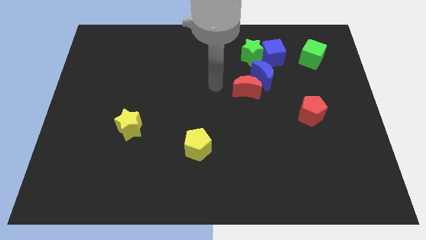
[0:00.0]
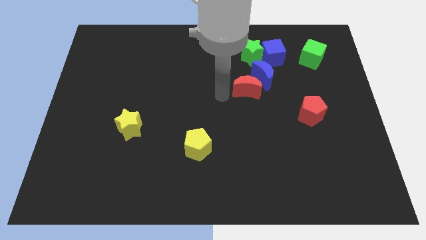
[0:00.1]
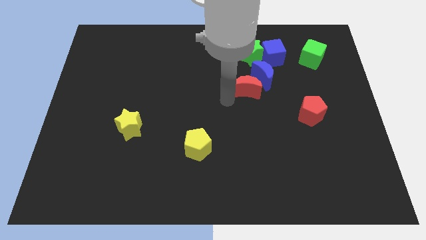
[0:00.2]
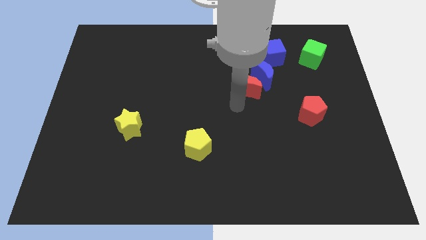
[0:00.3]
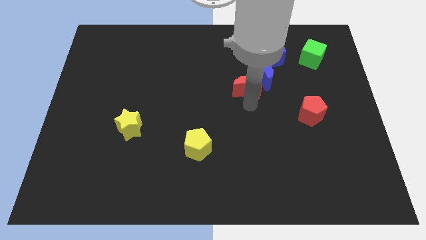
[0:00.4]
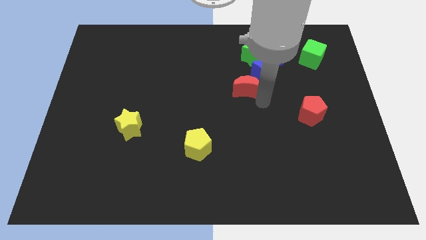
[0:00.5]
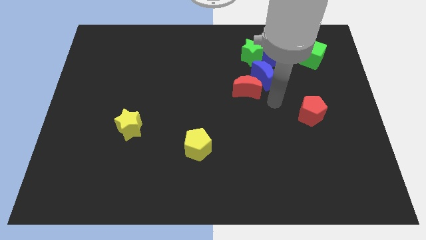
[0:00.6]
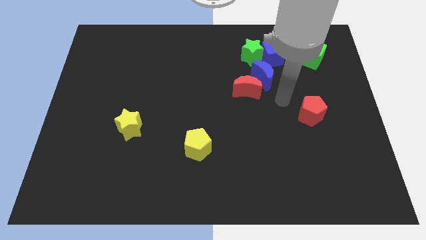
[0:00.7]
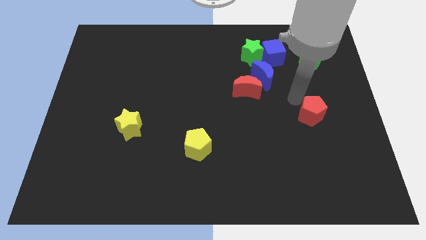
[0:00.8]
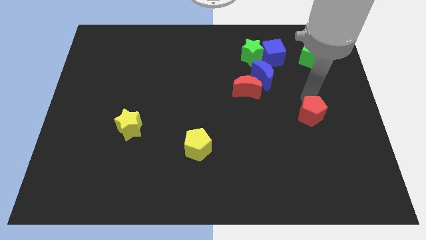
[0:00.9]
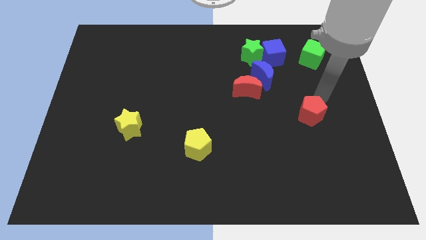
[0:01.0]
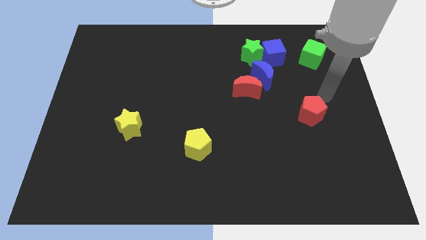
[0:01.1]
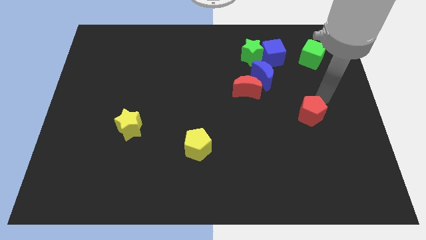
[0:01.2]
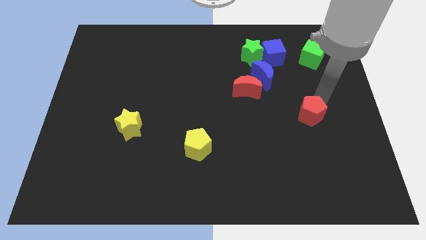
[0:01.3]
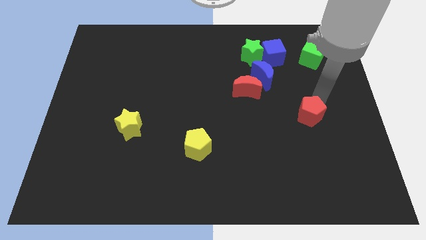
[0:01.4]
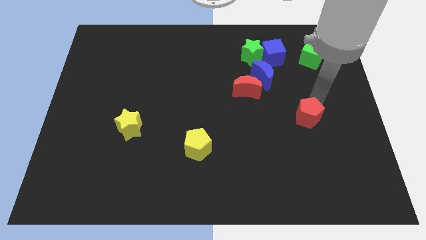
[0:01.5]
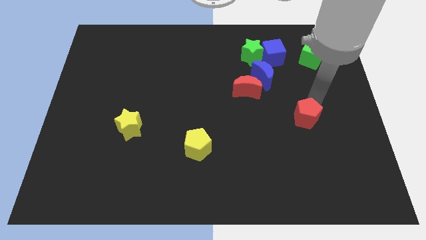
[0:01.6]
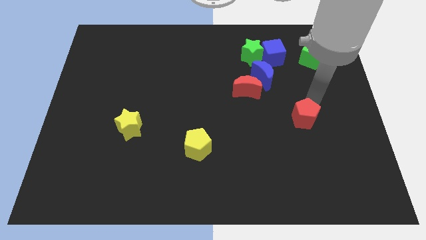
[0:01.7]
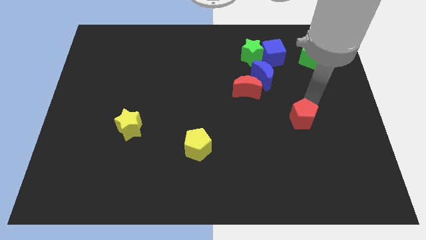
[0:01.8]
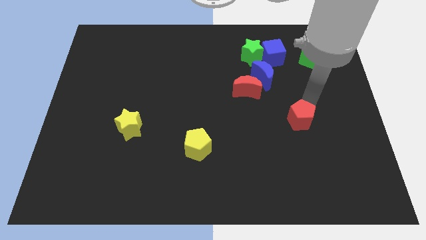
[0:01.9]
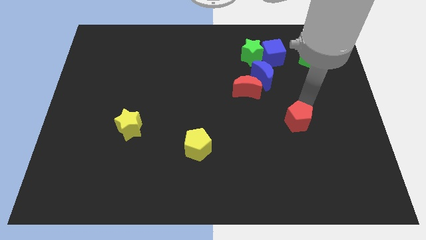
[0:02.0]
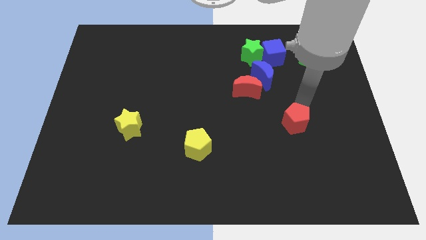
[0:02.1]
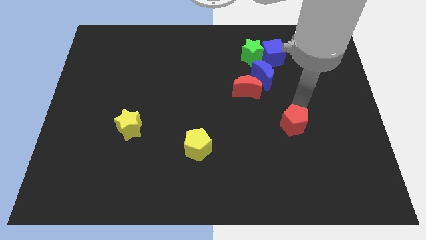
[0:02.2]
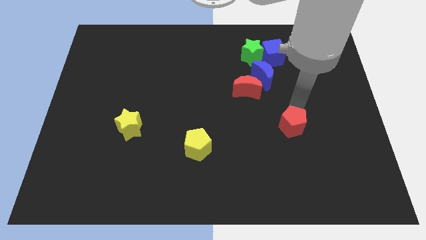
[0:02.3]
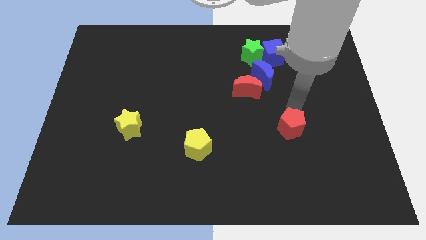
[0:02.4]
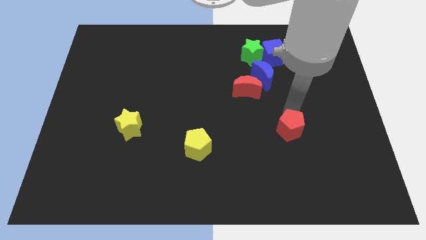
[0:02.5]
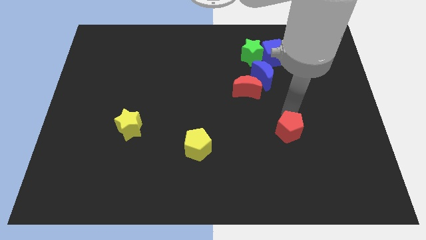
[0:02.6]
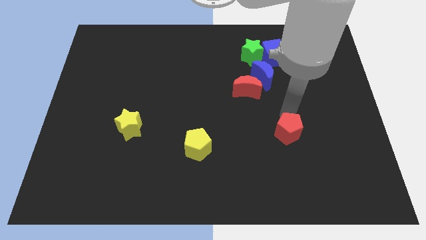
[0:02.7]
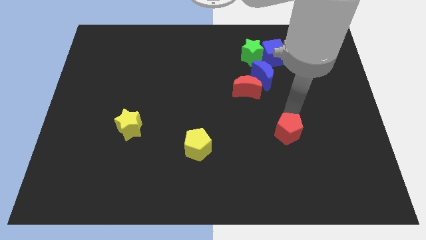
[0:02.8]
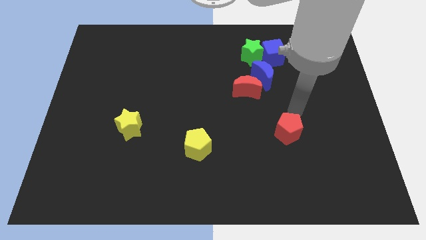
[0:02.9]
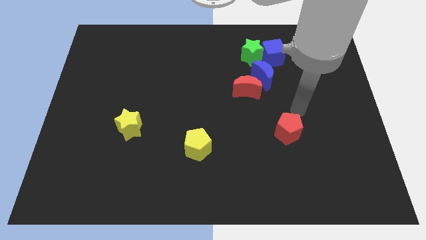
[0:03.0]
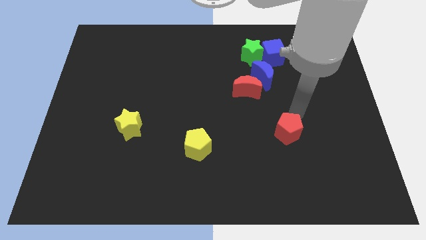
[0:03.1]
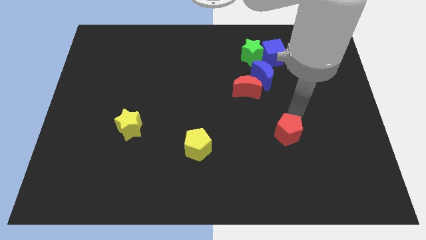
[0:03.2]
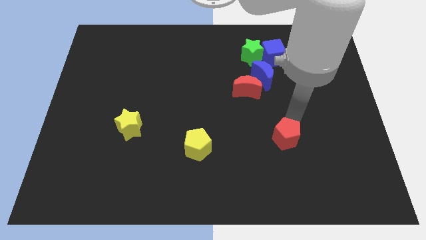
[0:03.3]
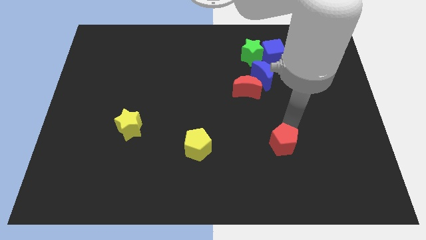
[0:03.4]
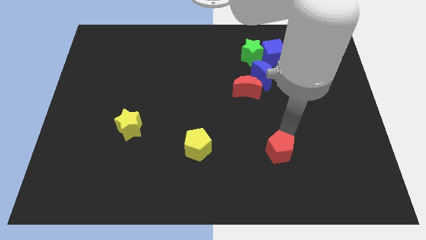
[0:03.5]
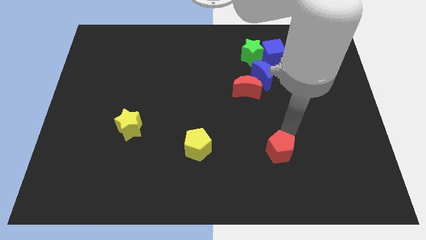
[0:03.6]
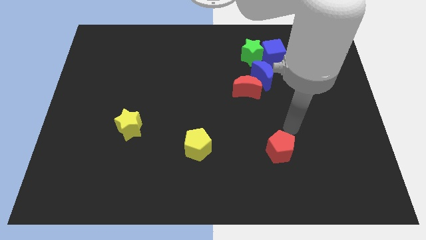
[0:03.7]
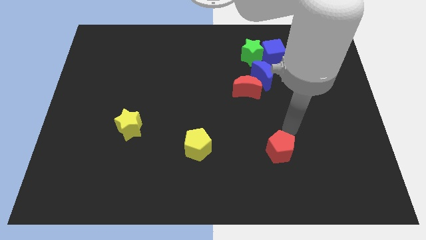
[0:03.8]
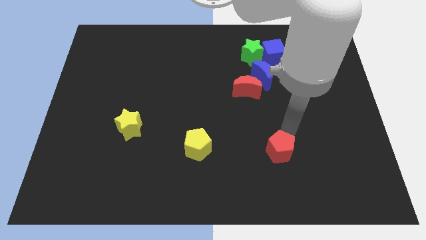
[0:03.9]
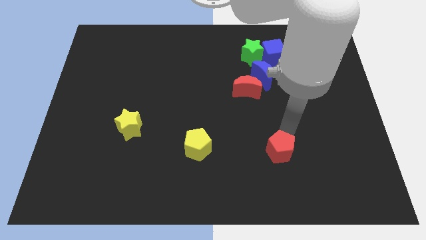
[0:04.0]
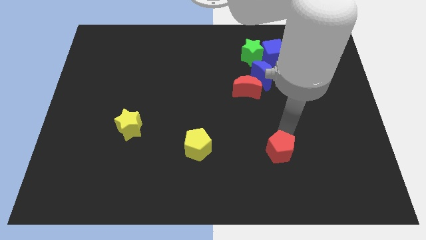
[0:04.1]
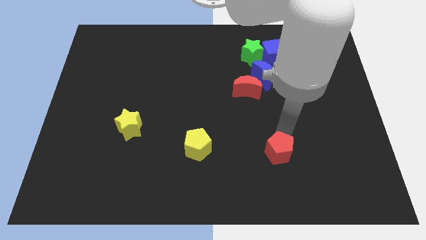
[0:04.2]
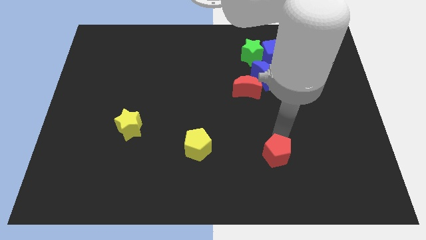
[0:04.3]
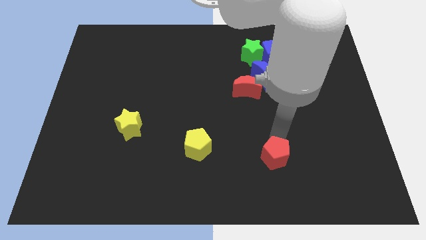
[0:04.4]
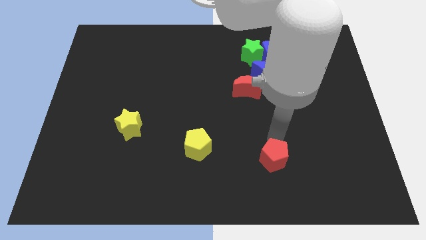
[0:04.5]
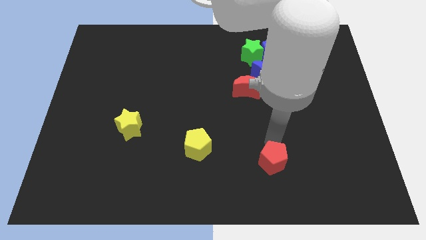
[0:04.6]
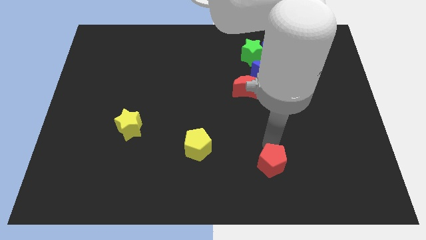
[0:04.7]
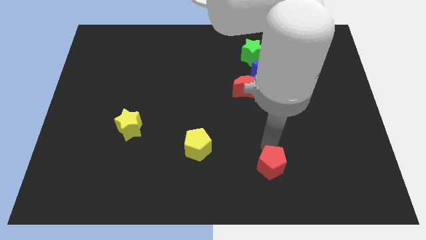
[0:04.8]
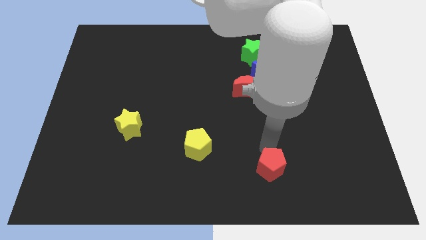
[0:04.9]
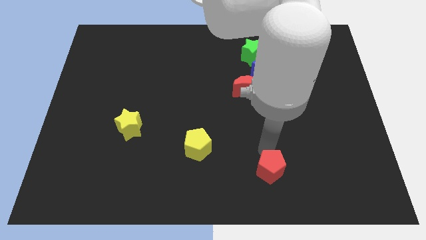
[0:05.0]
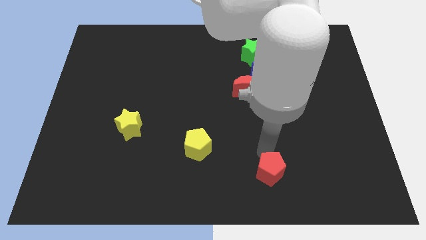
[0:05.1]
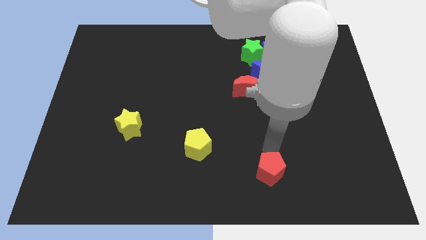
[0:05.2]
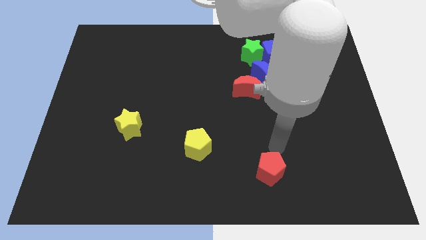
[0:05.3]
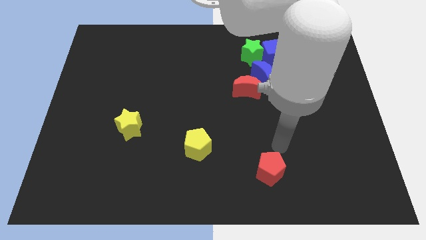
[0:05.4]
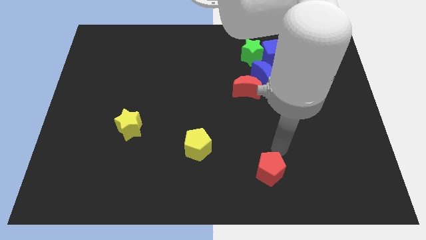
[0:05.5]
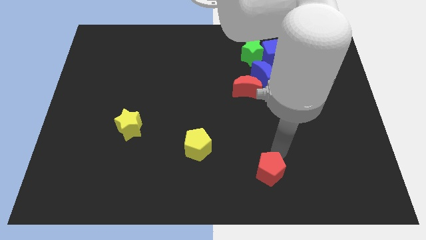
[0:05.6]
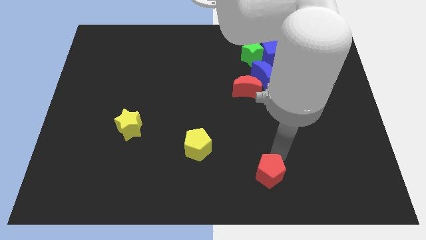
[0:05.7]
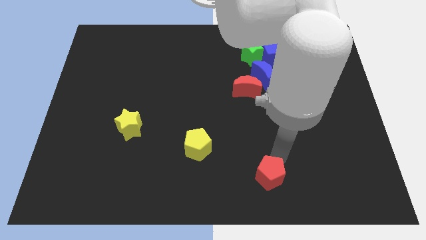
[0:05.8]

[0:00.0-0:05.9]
put the red pentagon to the bottom side

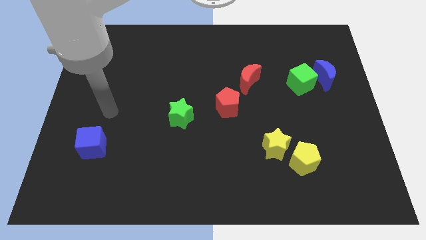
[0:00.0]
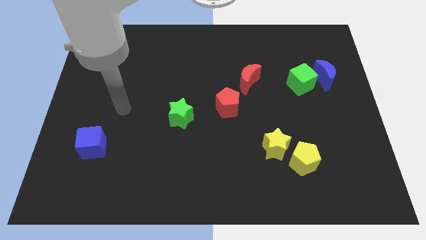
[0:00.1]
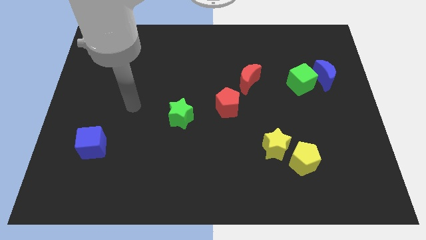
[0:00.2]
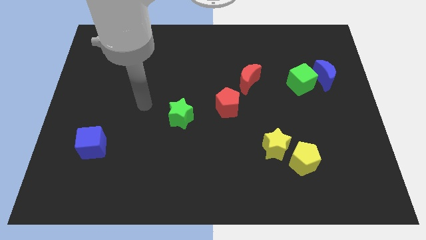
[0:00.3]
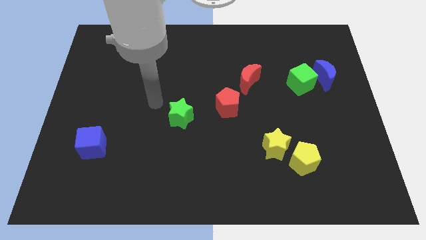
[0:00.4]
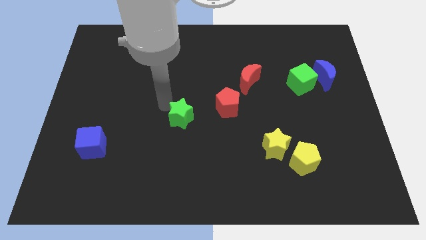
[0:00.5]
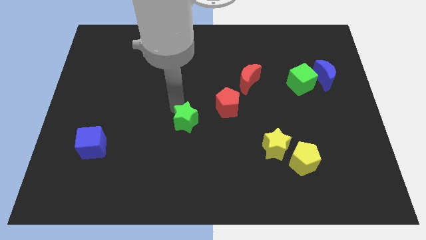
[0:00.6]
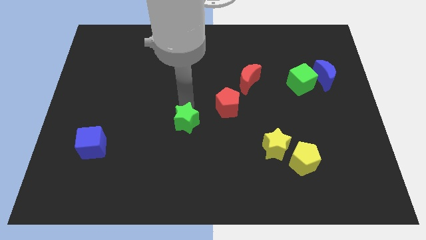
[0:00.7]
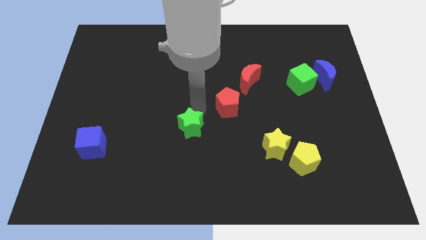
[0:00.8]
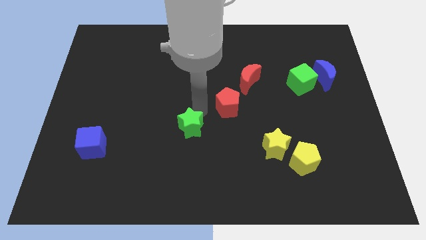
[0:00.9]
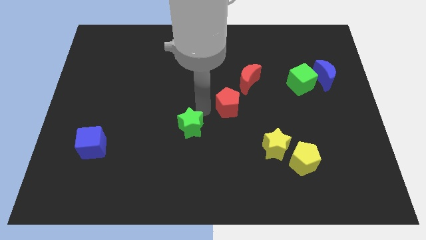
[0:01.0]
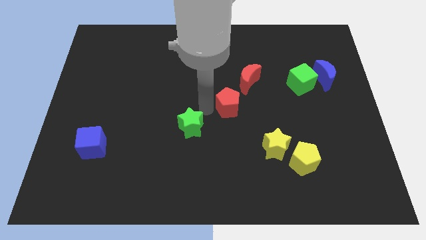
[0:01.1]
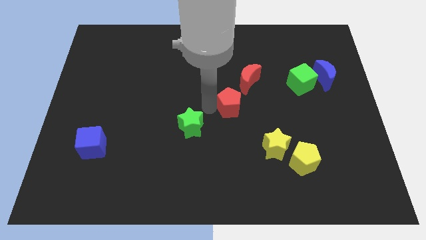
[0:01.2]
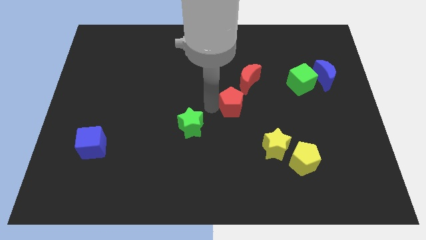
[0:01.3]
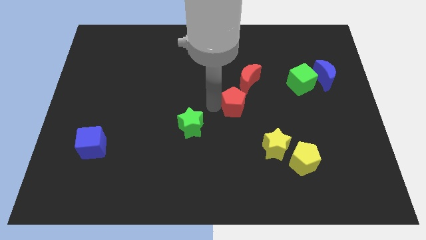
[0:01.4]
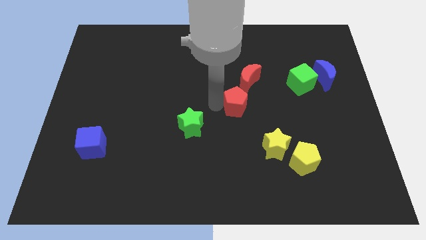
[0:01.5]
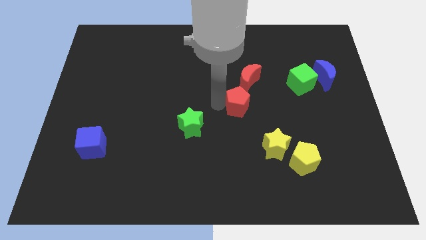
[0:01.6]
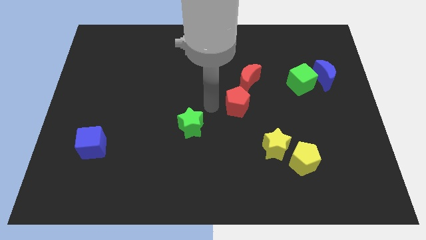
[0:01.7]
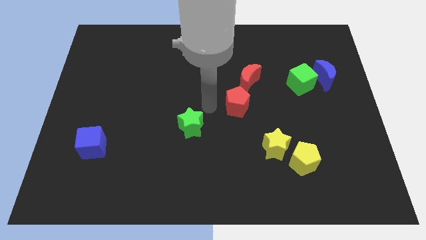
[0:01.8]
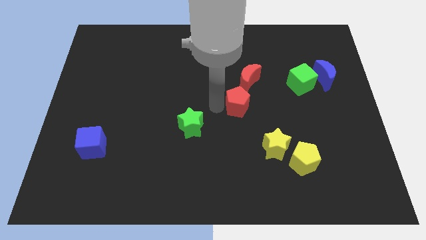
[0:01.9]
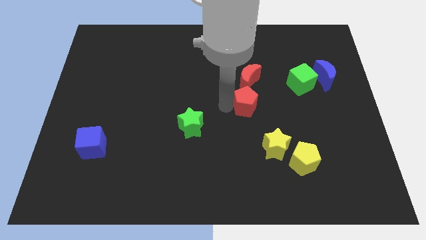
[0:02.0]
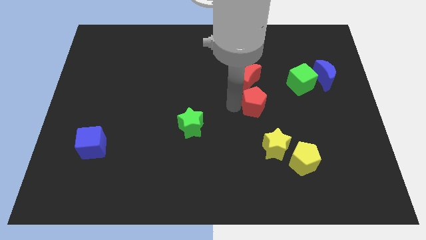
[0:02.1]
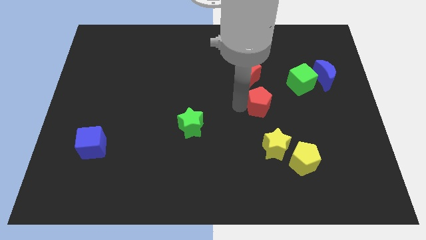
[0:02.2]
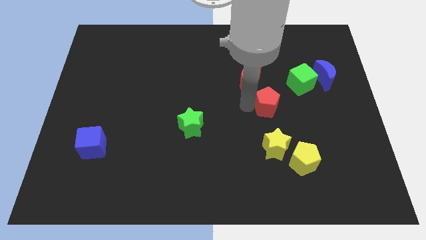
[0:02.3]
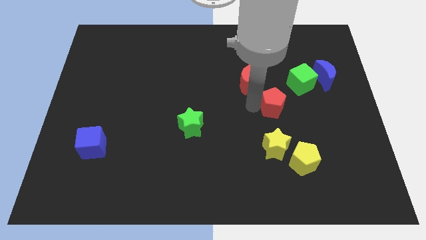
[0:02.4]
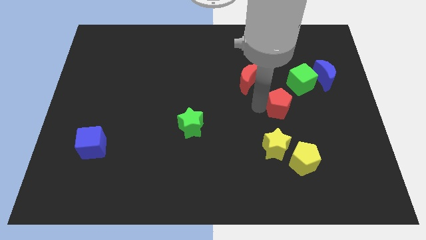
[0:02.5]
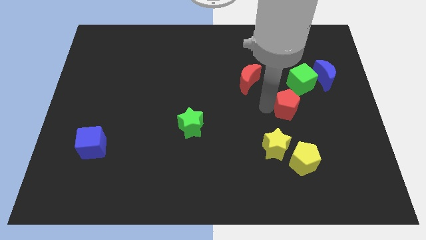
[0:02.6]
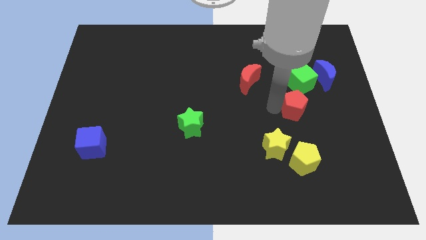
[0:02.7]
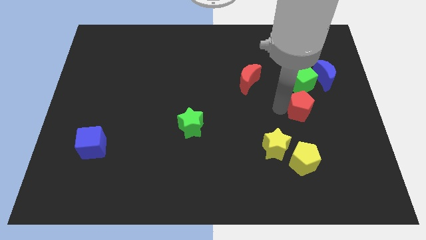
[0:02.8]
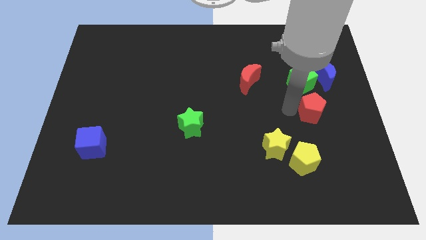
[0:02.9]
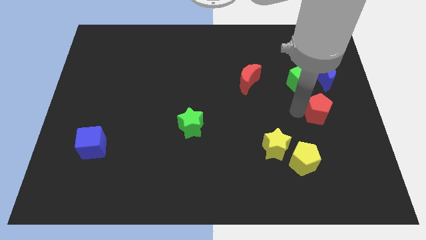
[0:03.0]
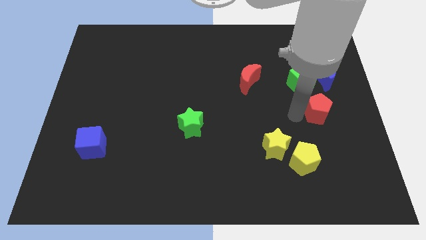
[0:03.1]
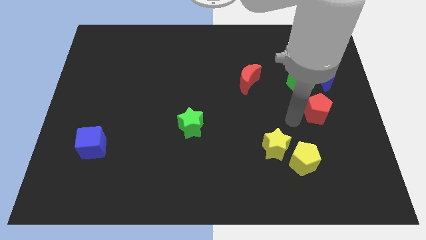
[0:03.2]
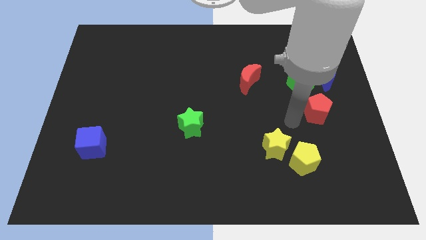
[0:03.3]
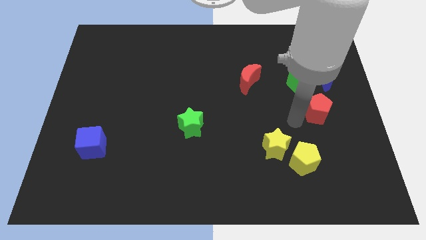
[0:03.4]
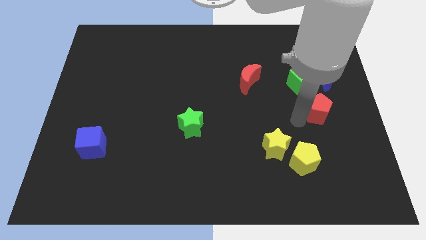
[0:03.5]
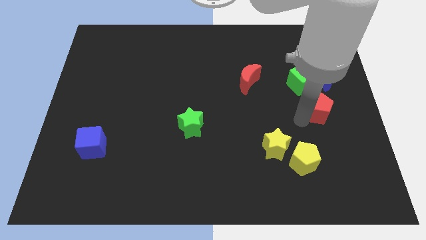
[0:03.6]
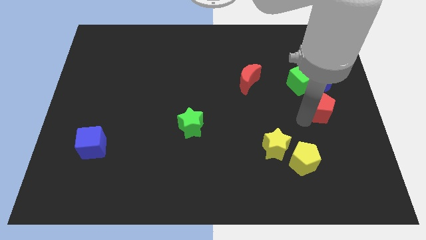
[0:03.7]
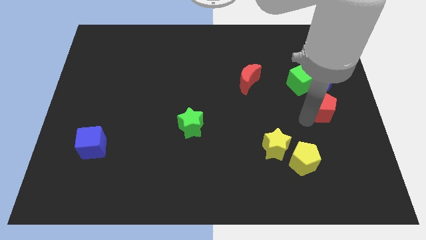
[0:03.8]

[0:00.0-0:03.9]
put the red pentagon to the center right
